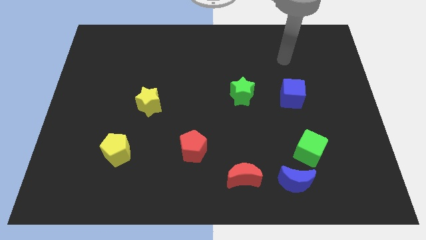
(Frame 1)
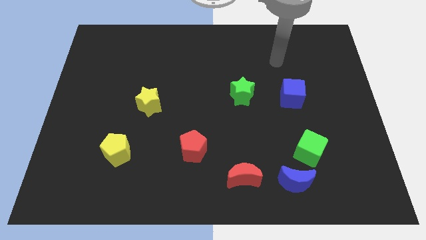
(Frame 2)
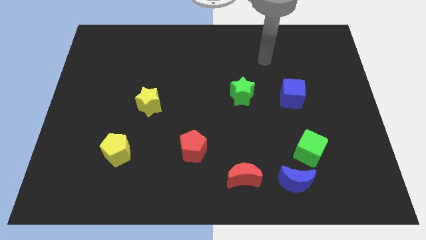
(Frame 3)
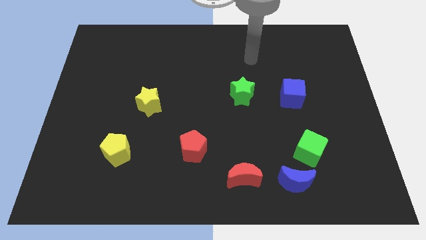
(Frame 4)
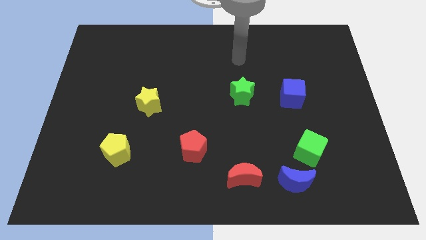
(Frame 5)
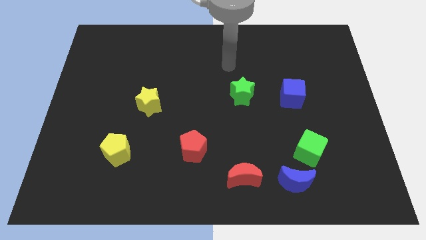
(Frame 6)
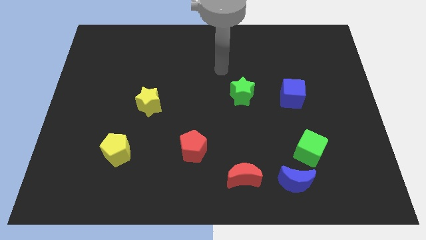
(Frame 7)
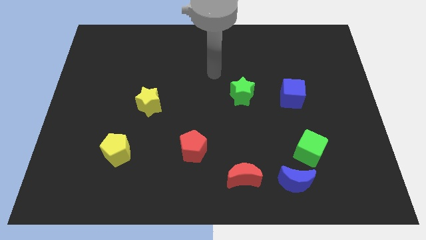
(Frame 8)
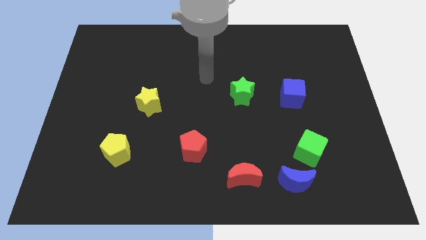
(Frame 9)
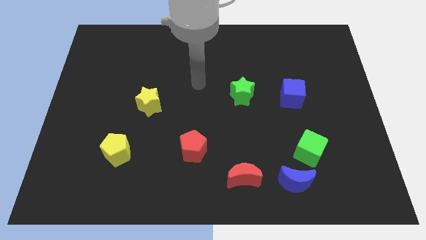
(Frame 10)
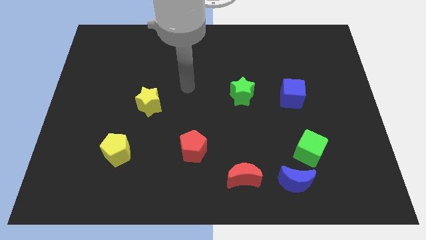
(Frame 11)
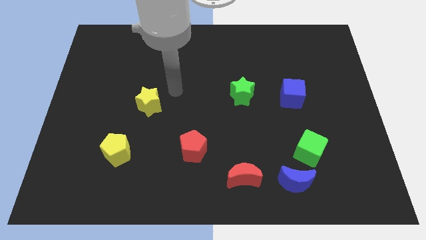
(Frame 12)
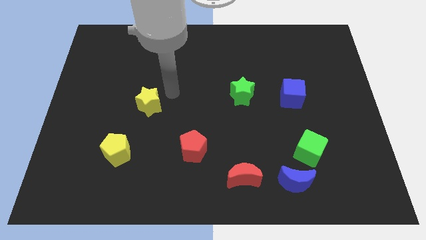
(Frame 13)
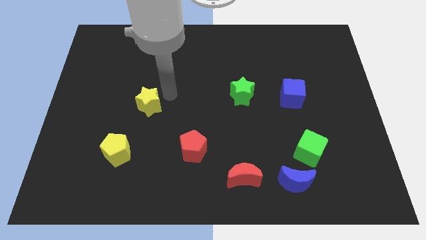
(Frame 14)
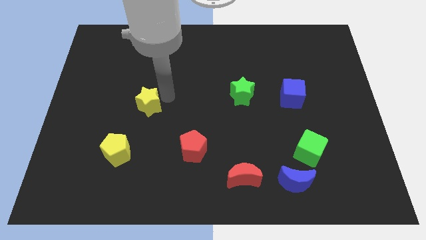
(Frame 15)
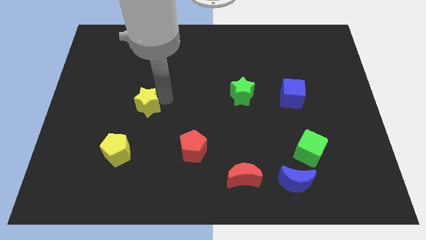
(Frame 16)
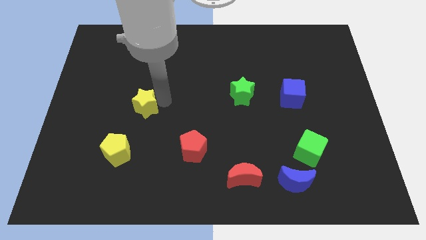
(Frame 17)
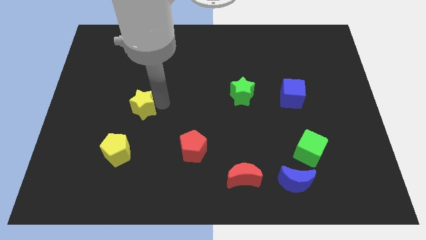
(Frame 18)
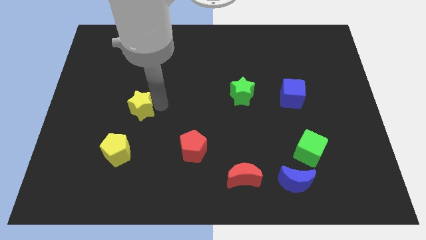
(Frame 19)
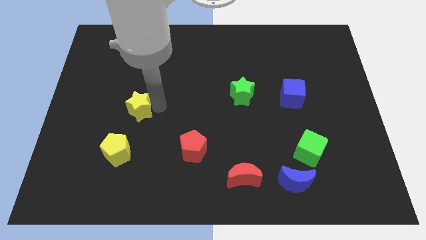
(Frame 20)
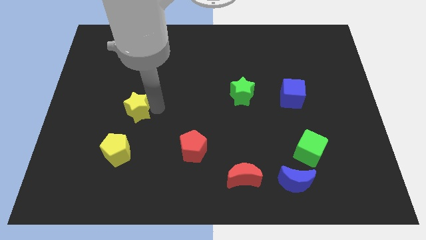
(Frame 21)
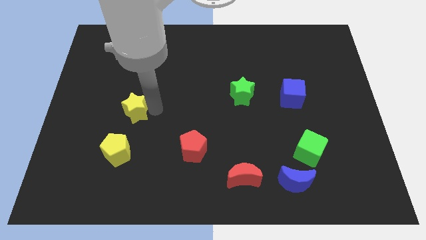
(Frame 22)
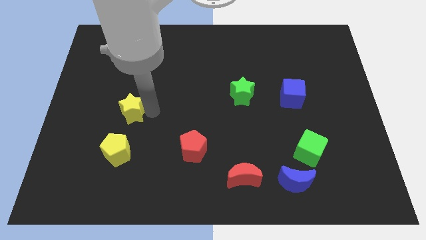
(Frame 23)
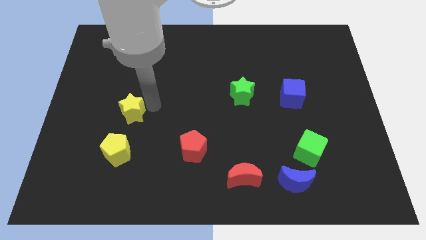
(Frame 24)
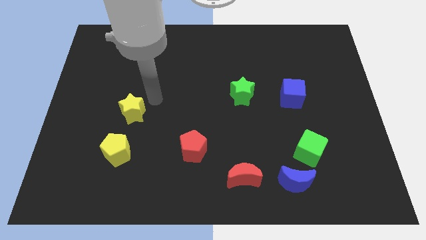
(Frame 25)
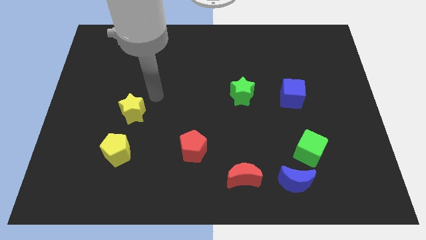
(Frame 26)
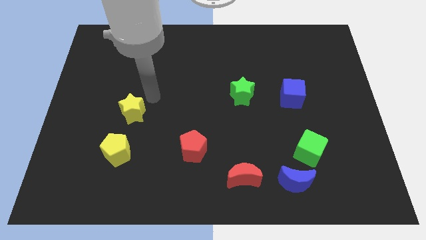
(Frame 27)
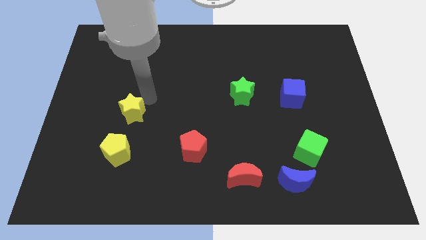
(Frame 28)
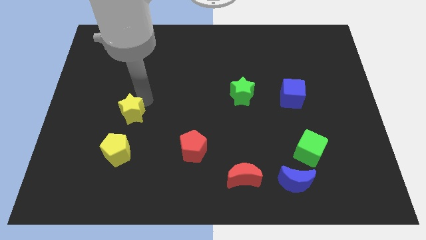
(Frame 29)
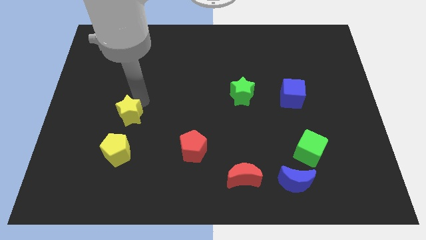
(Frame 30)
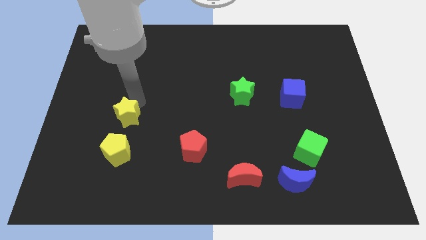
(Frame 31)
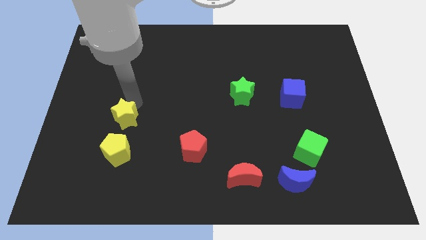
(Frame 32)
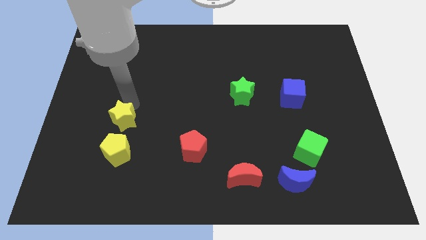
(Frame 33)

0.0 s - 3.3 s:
push the yellow star downwards and then to the left a bit

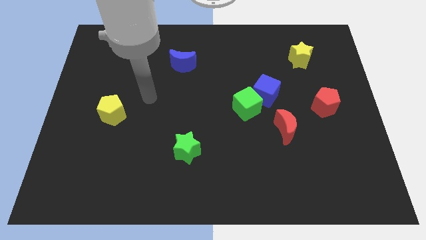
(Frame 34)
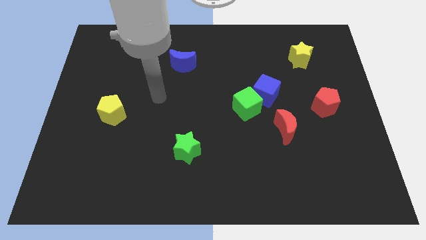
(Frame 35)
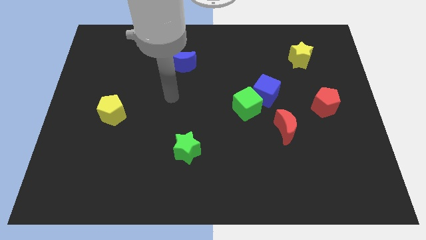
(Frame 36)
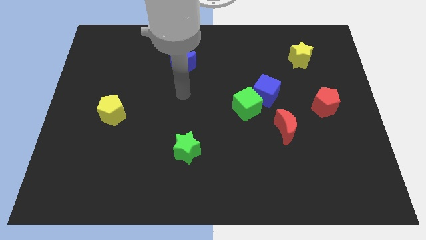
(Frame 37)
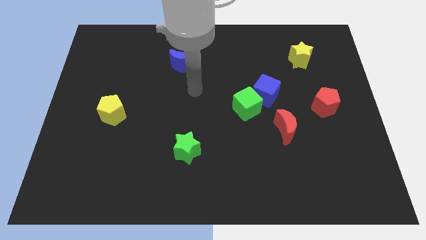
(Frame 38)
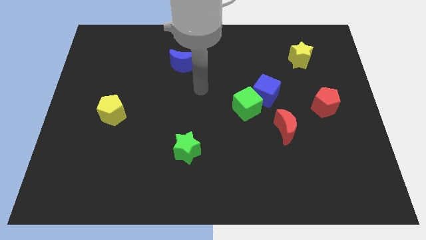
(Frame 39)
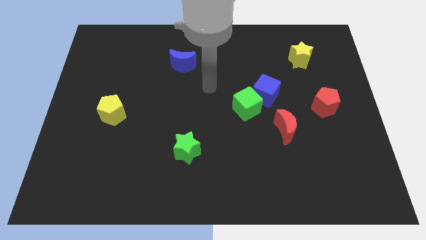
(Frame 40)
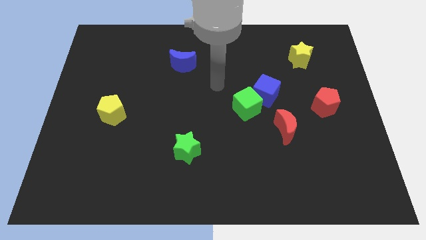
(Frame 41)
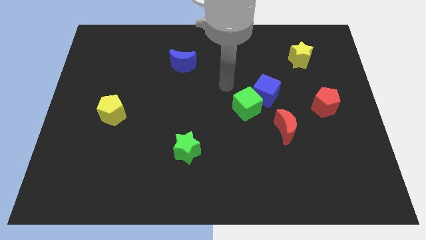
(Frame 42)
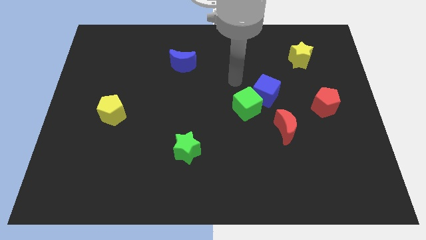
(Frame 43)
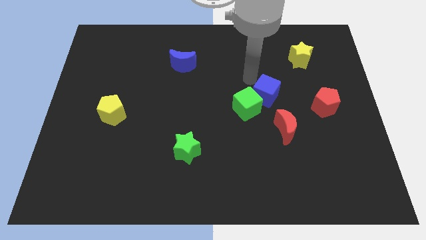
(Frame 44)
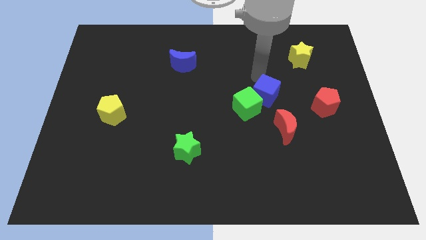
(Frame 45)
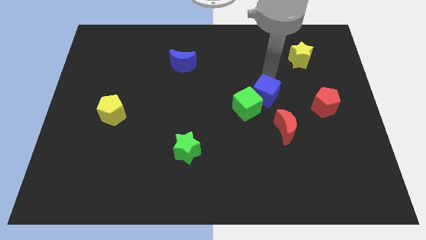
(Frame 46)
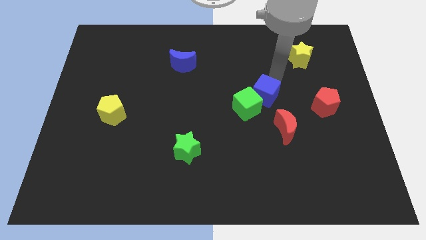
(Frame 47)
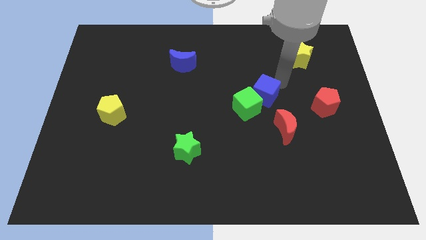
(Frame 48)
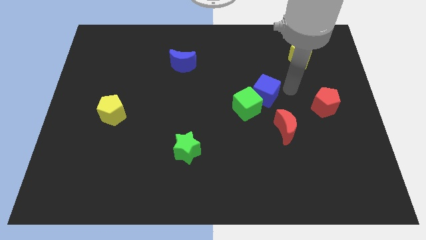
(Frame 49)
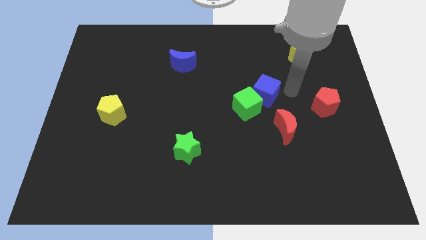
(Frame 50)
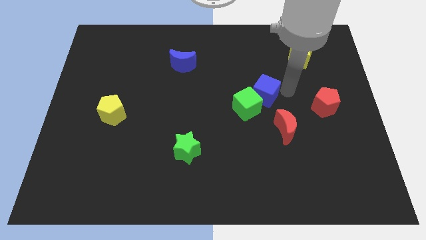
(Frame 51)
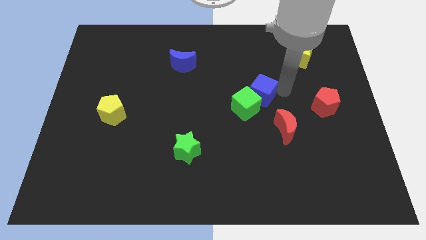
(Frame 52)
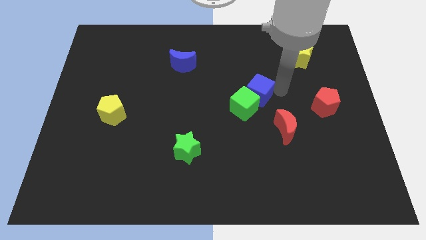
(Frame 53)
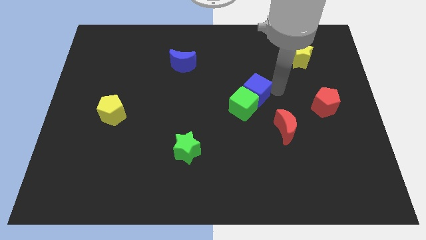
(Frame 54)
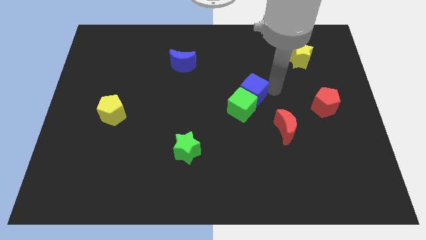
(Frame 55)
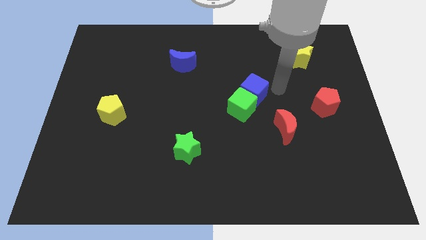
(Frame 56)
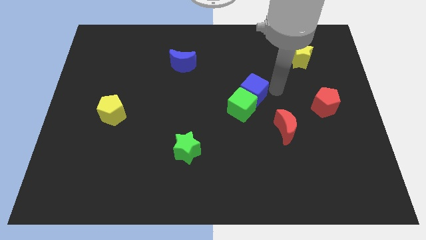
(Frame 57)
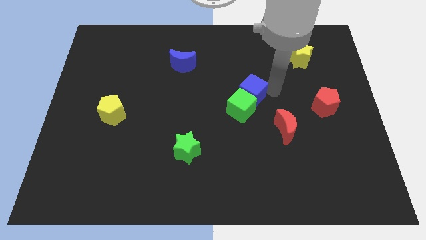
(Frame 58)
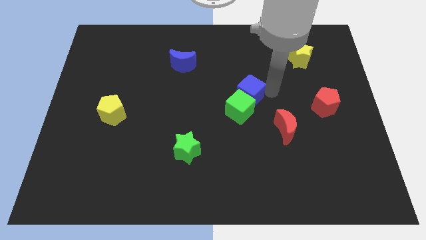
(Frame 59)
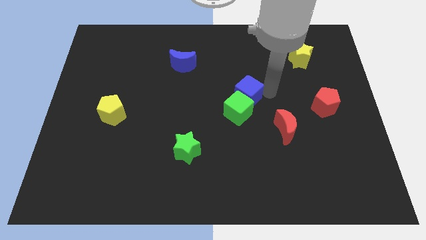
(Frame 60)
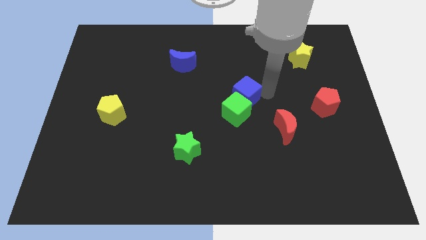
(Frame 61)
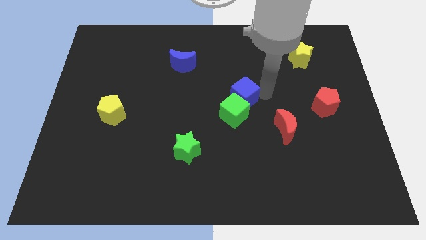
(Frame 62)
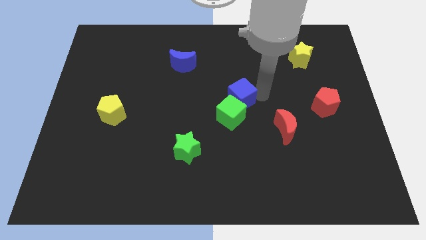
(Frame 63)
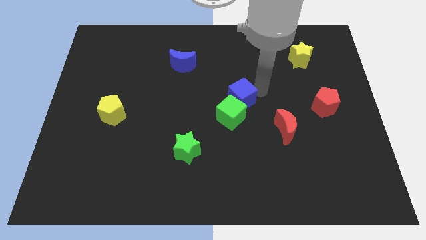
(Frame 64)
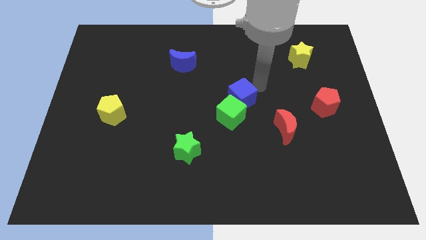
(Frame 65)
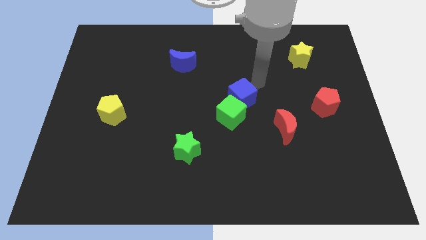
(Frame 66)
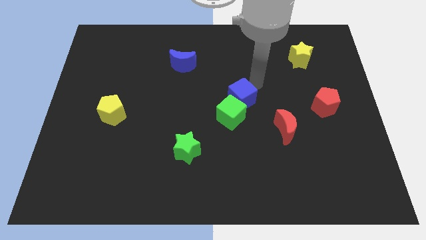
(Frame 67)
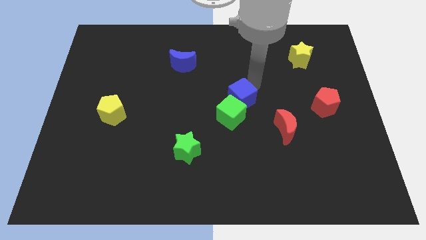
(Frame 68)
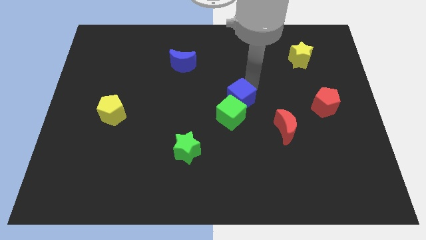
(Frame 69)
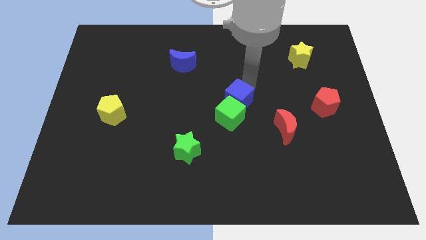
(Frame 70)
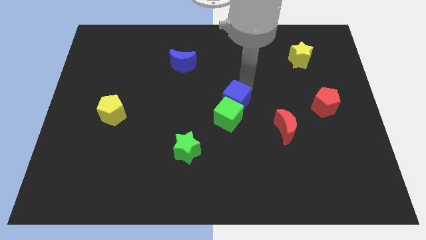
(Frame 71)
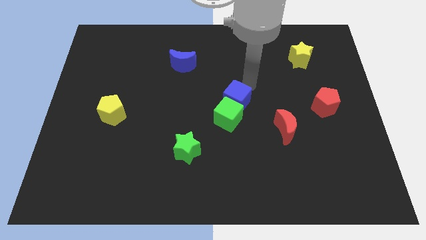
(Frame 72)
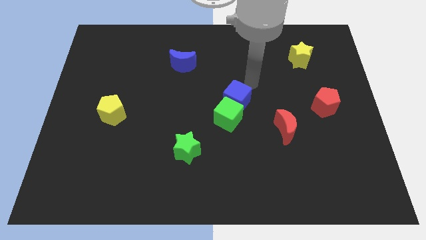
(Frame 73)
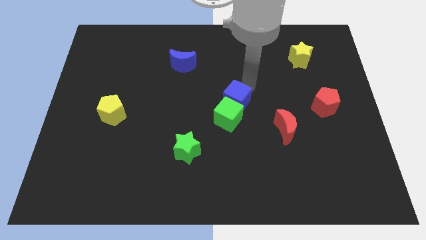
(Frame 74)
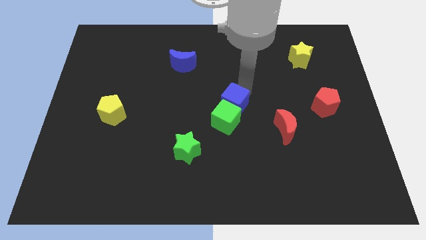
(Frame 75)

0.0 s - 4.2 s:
move the blue cube a bit diagonally down and left

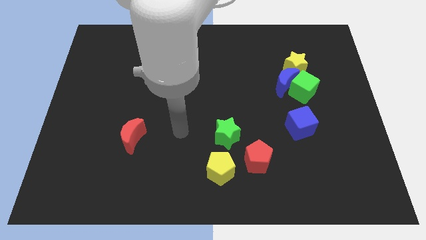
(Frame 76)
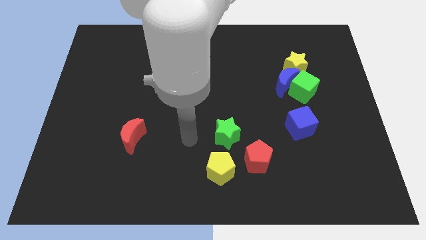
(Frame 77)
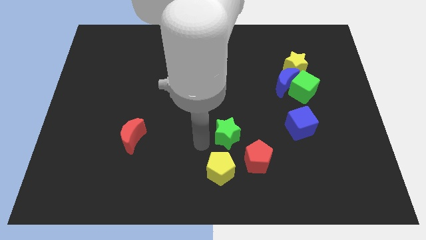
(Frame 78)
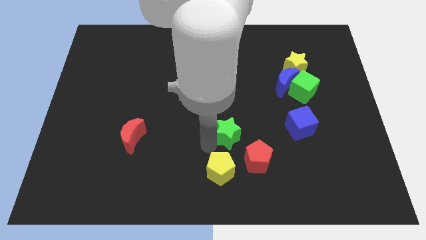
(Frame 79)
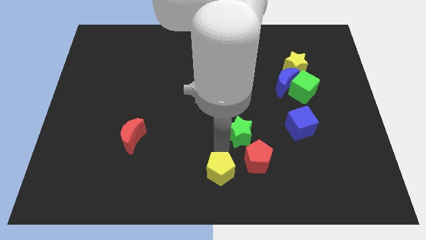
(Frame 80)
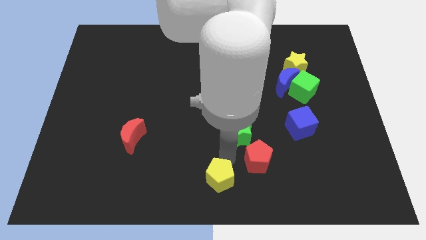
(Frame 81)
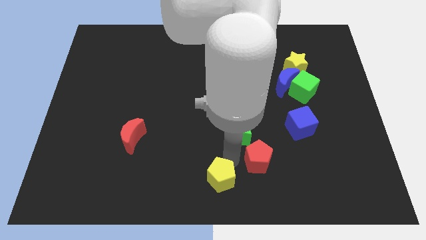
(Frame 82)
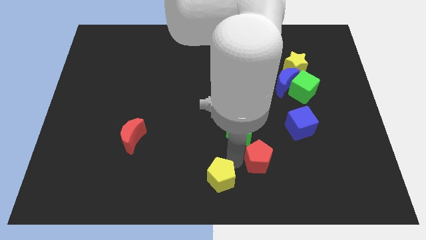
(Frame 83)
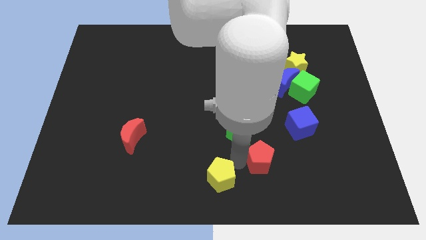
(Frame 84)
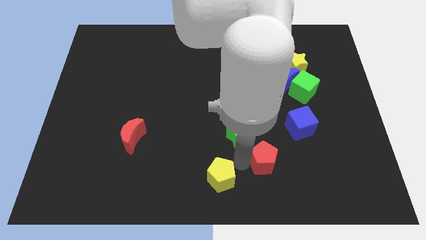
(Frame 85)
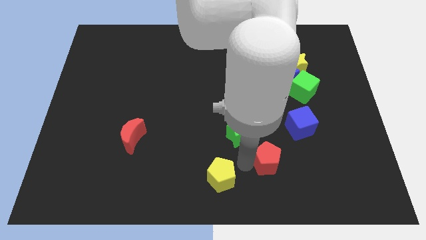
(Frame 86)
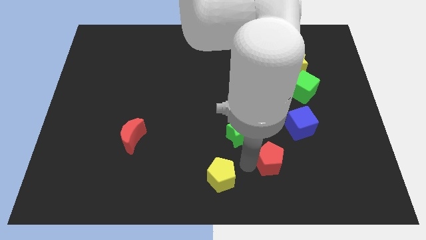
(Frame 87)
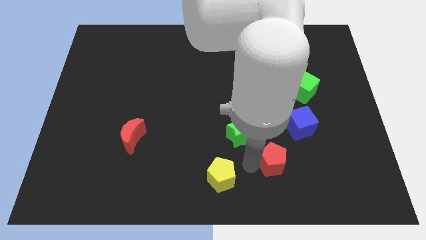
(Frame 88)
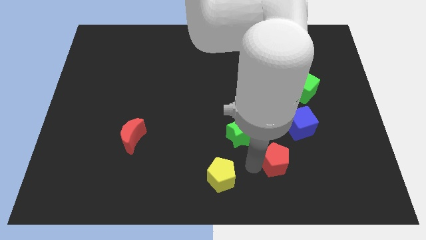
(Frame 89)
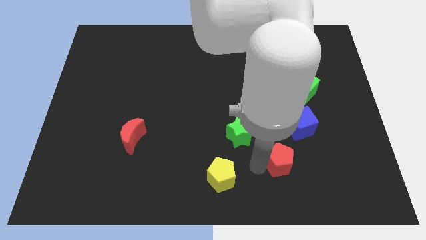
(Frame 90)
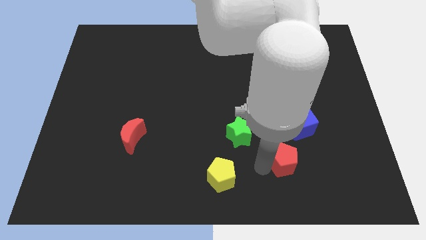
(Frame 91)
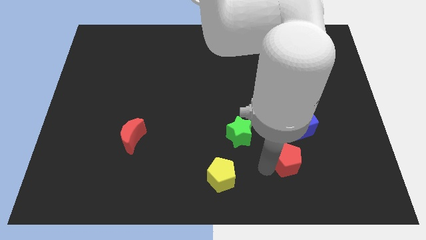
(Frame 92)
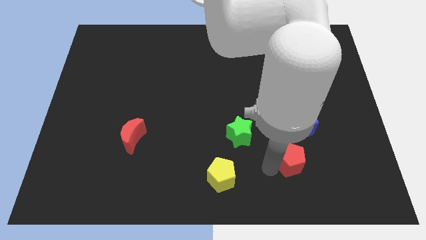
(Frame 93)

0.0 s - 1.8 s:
move the red pentagon right somewhat
